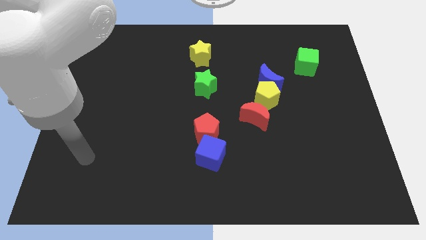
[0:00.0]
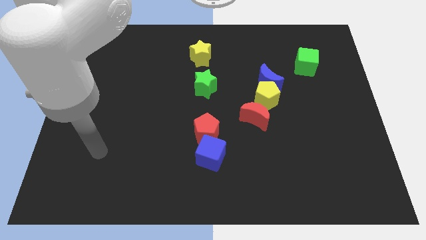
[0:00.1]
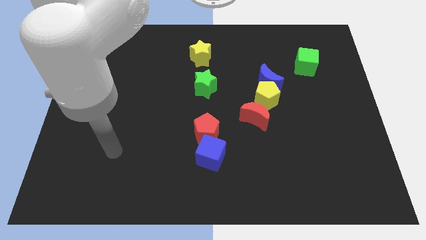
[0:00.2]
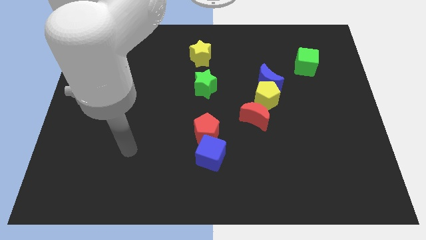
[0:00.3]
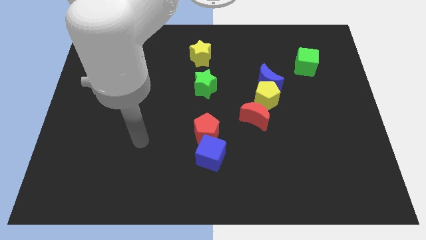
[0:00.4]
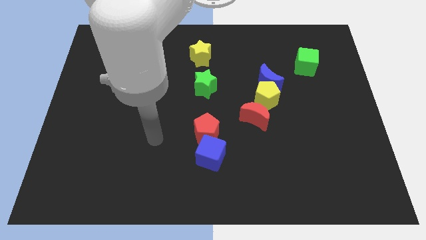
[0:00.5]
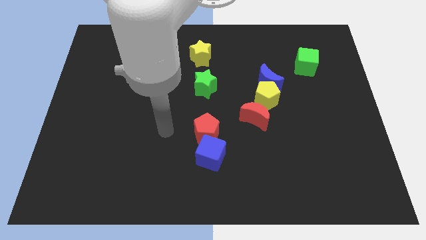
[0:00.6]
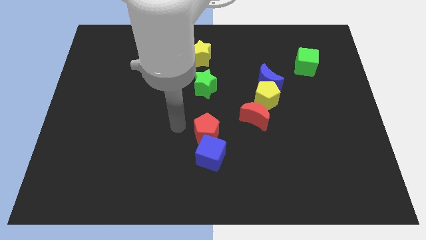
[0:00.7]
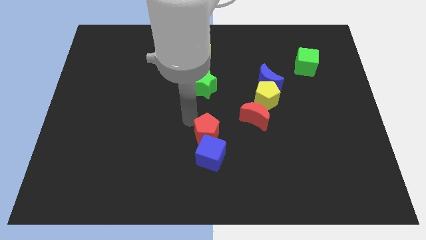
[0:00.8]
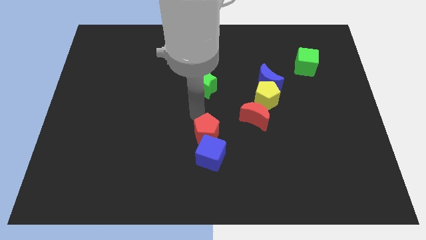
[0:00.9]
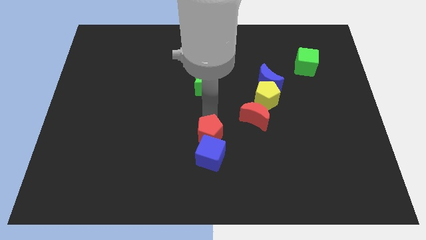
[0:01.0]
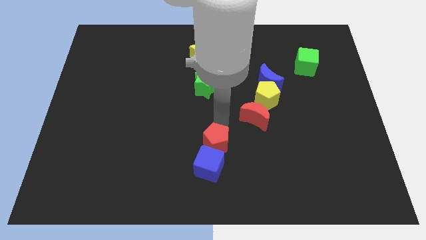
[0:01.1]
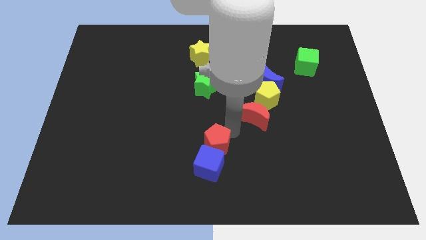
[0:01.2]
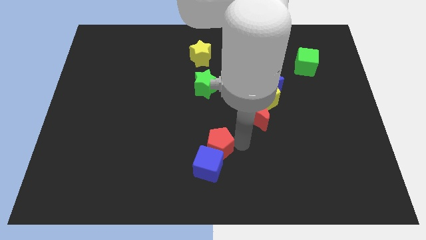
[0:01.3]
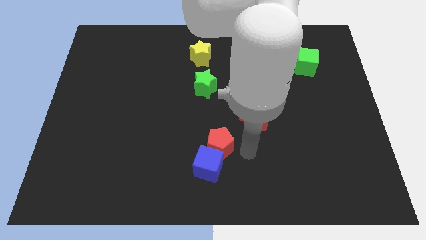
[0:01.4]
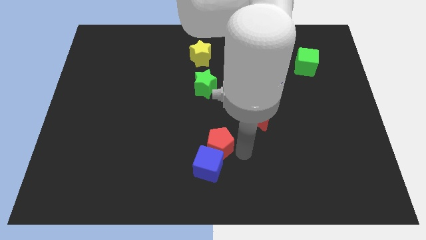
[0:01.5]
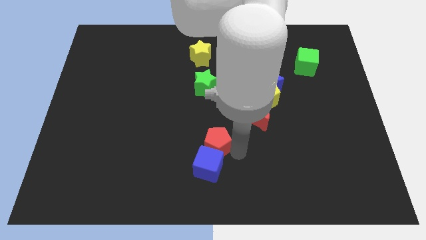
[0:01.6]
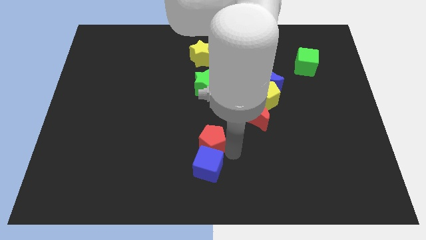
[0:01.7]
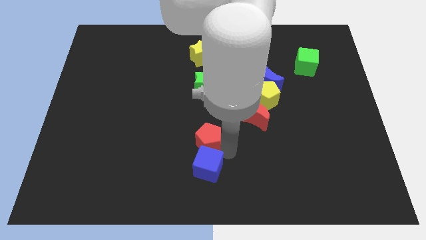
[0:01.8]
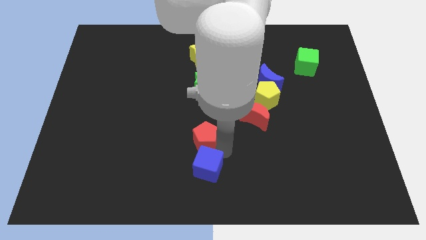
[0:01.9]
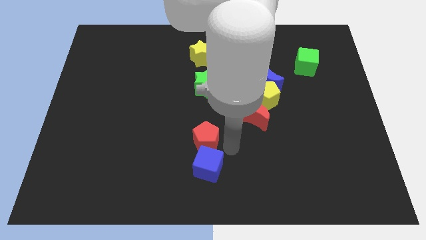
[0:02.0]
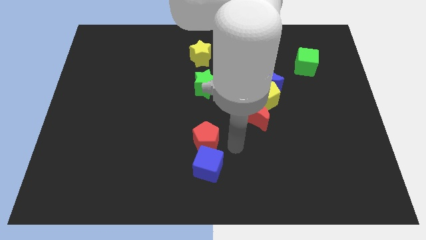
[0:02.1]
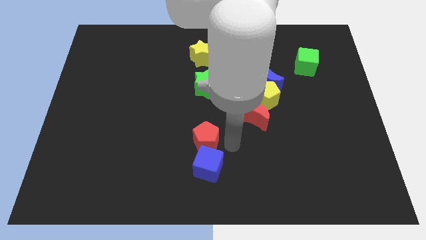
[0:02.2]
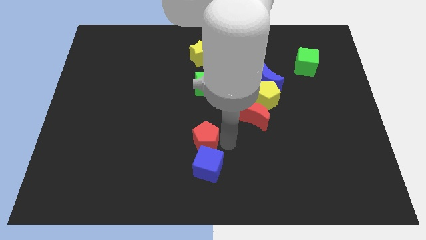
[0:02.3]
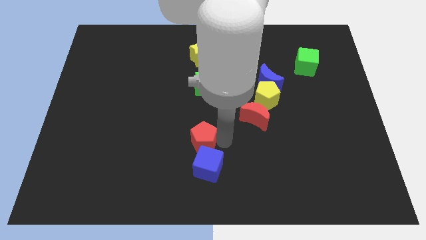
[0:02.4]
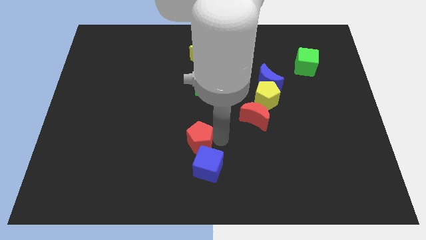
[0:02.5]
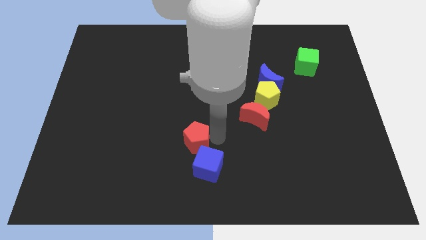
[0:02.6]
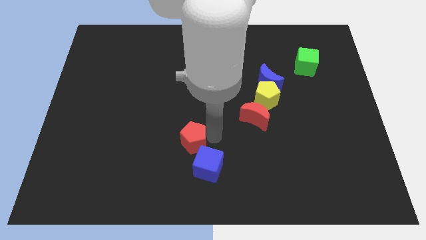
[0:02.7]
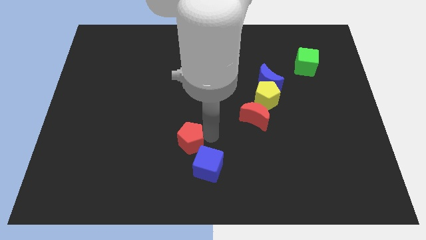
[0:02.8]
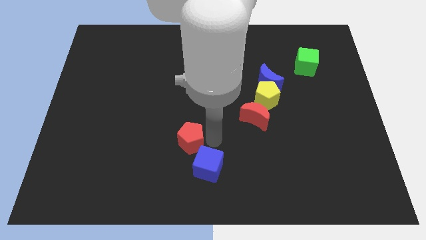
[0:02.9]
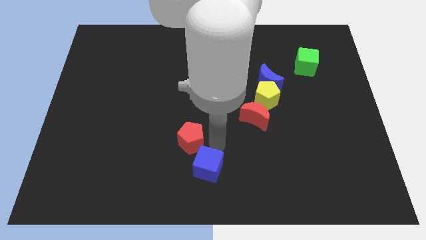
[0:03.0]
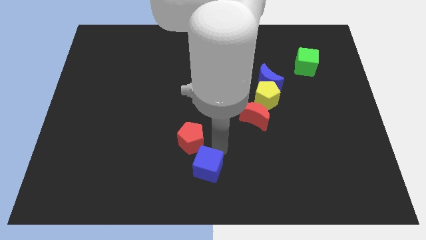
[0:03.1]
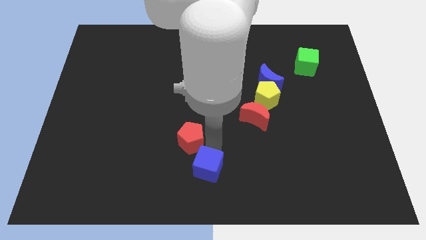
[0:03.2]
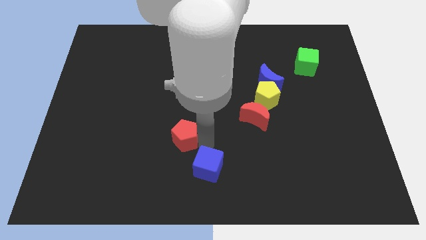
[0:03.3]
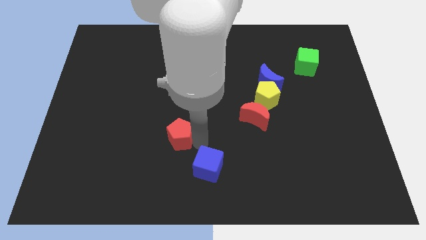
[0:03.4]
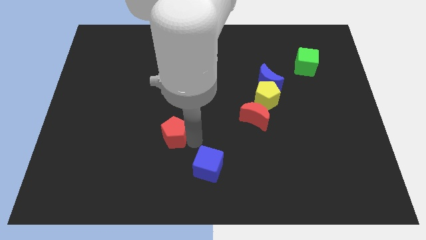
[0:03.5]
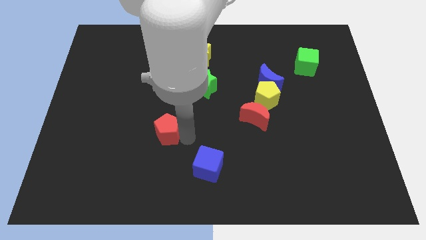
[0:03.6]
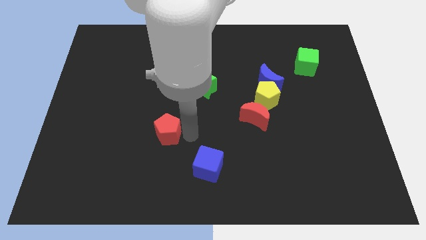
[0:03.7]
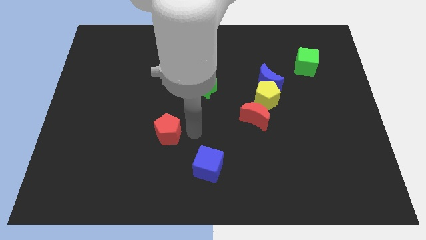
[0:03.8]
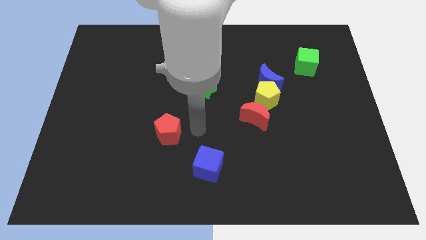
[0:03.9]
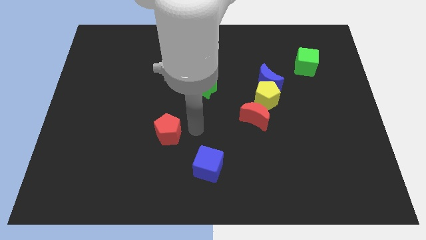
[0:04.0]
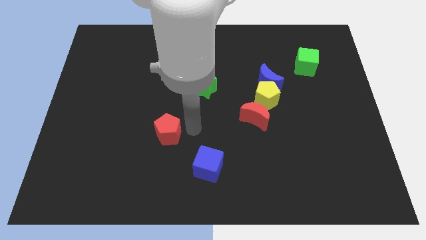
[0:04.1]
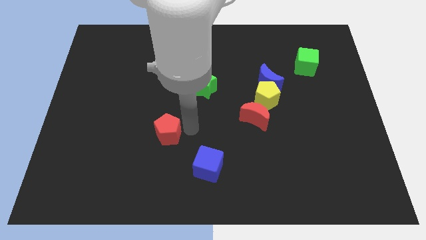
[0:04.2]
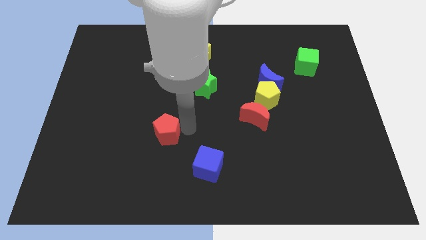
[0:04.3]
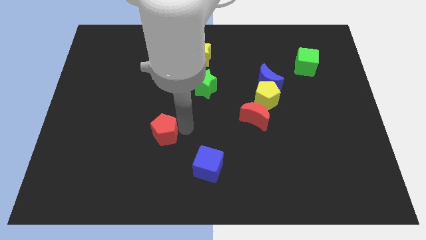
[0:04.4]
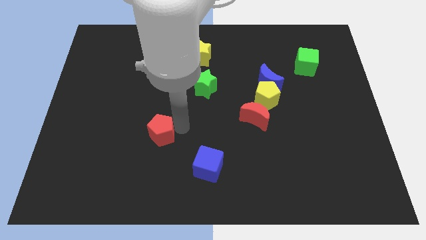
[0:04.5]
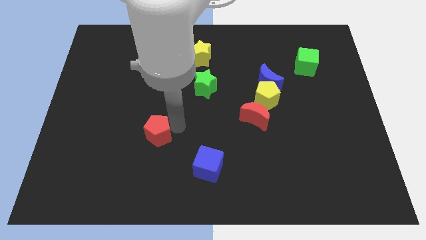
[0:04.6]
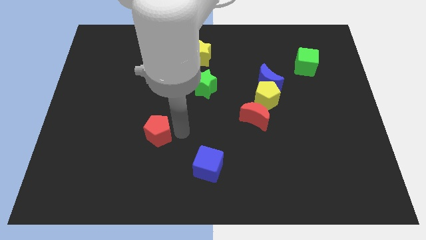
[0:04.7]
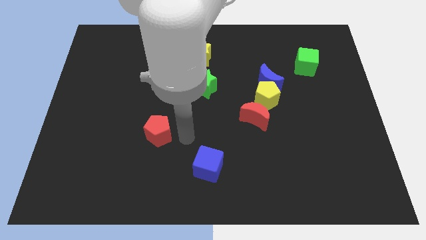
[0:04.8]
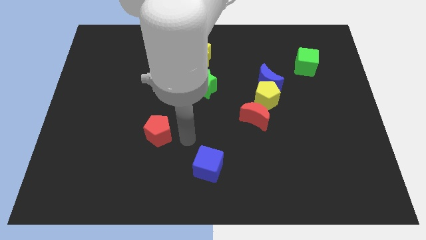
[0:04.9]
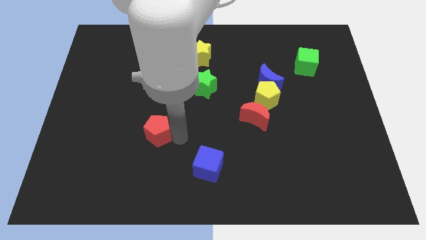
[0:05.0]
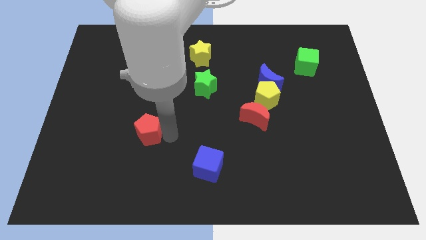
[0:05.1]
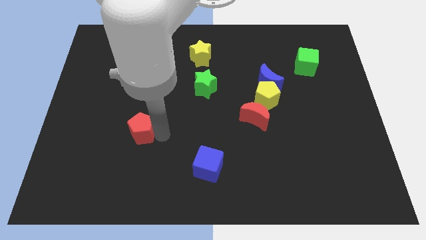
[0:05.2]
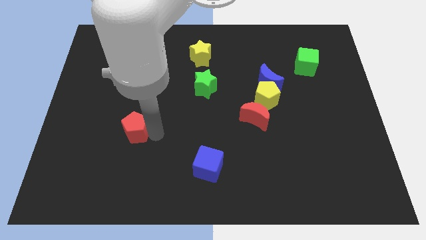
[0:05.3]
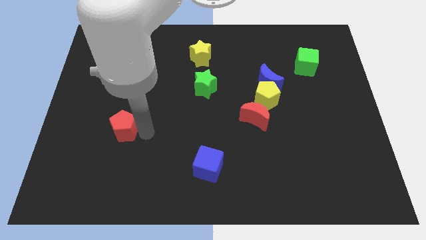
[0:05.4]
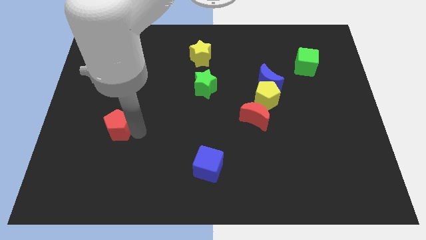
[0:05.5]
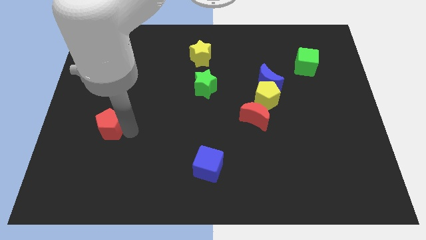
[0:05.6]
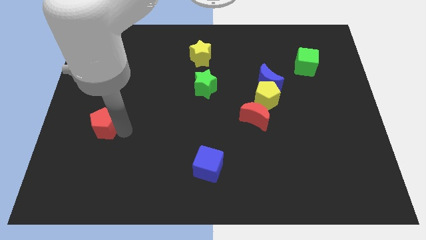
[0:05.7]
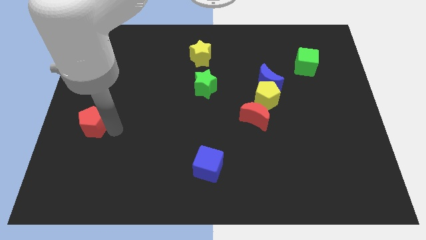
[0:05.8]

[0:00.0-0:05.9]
slide the red pentagon to the center left

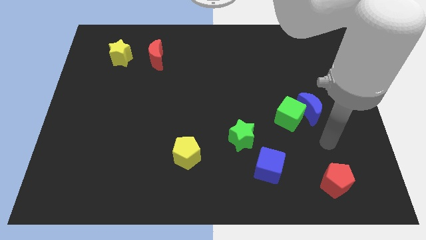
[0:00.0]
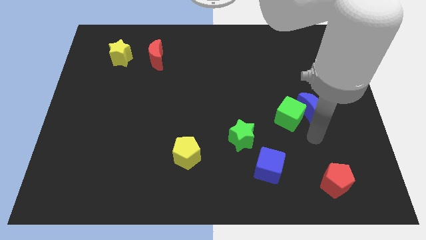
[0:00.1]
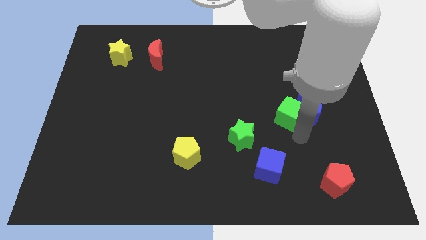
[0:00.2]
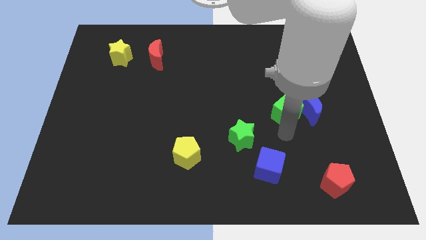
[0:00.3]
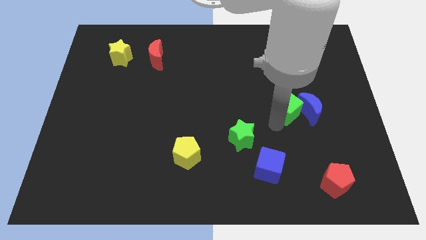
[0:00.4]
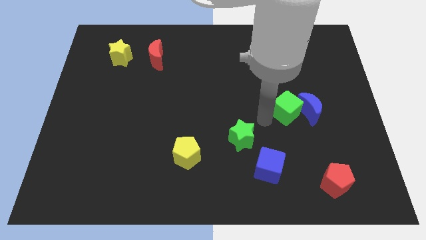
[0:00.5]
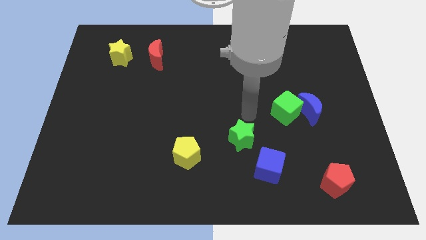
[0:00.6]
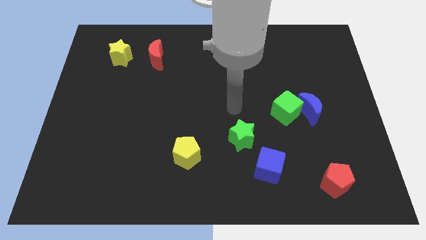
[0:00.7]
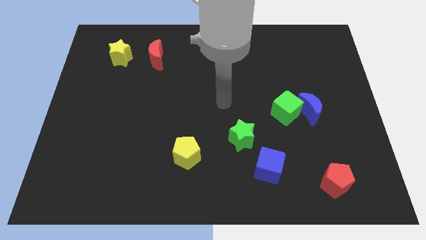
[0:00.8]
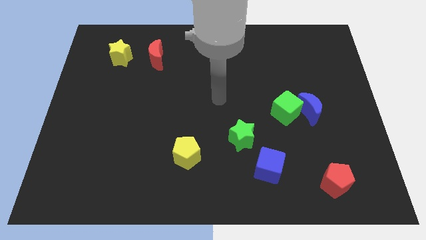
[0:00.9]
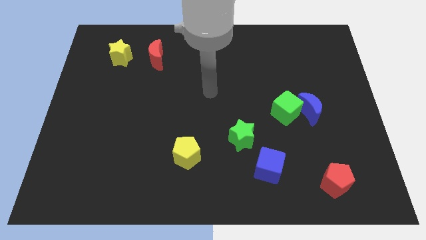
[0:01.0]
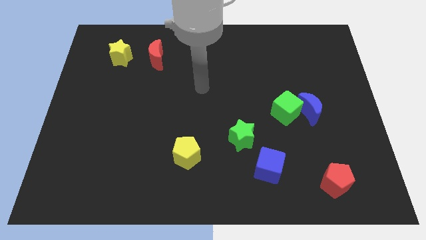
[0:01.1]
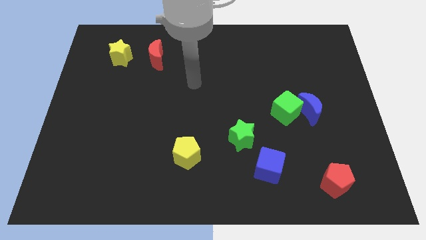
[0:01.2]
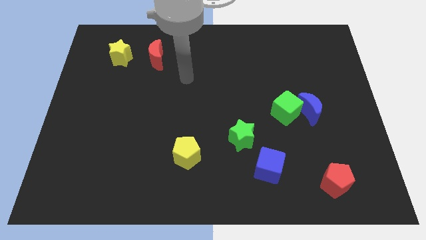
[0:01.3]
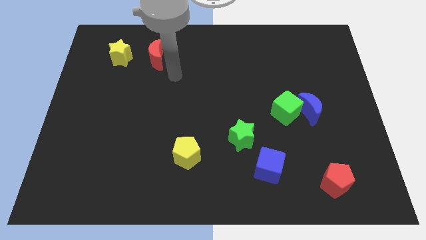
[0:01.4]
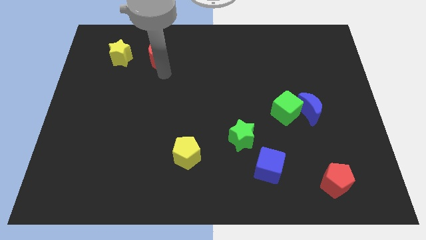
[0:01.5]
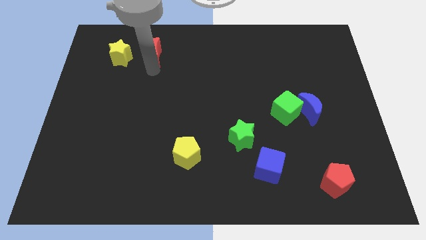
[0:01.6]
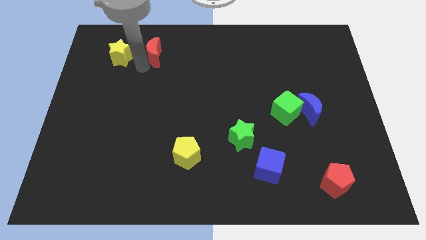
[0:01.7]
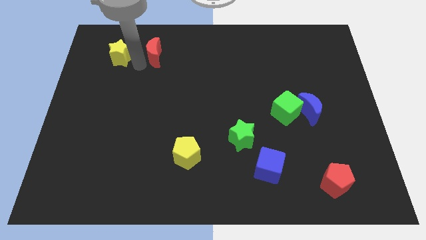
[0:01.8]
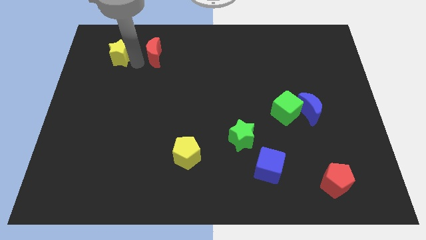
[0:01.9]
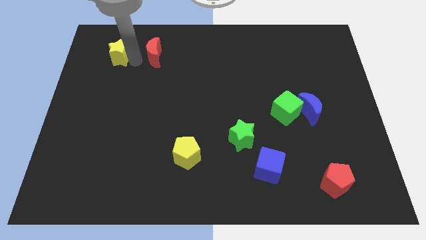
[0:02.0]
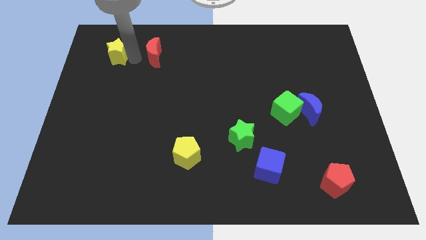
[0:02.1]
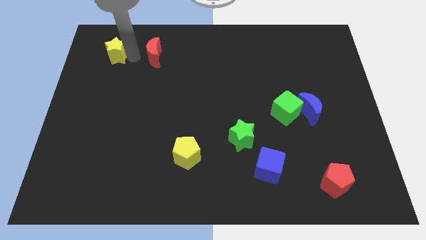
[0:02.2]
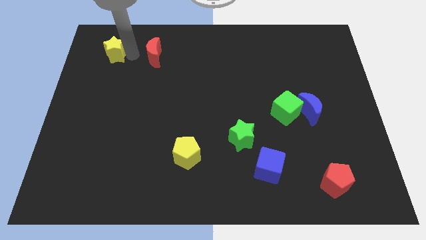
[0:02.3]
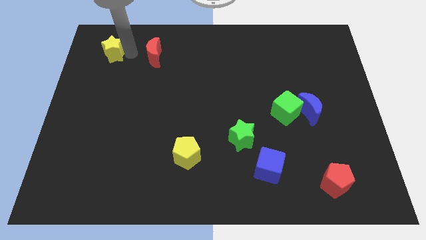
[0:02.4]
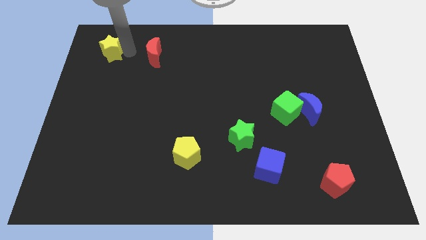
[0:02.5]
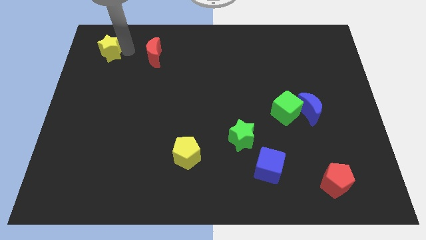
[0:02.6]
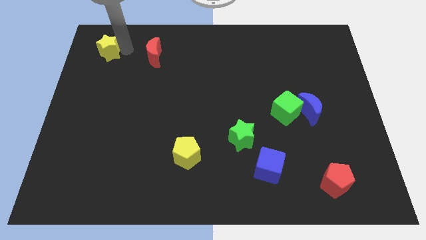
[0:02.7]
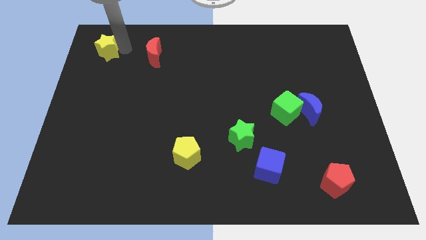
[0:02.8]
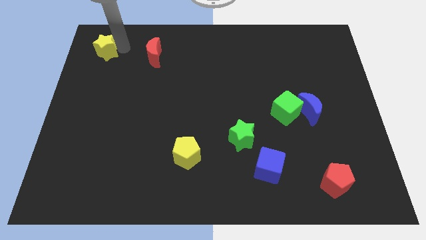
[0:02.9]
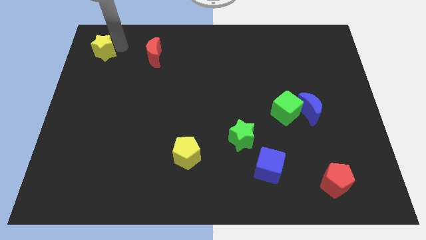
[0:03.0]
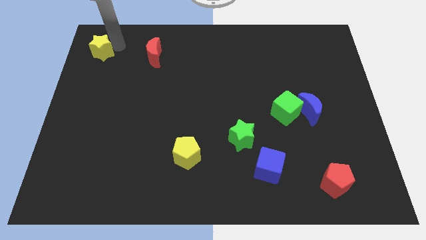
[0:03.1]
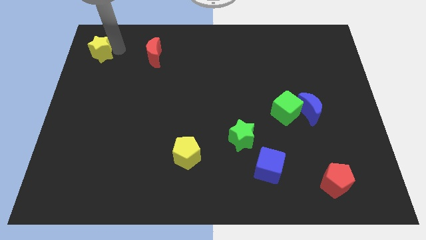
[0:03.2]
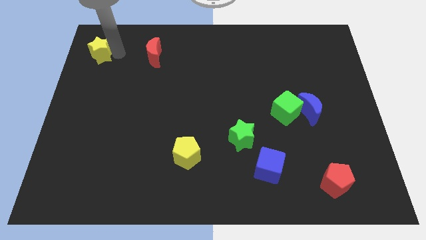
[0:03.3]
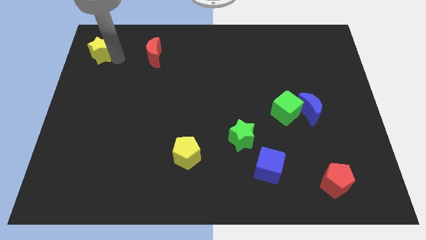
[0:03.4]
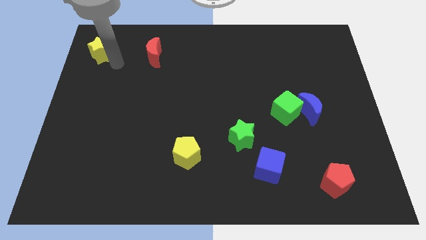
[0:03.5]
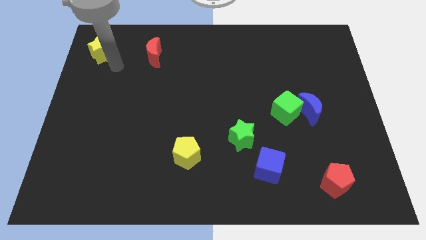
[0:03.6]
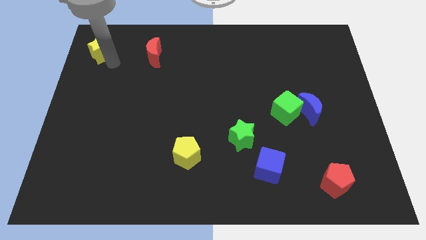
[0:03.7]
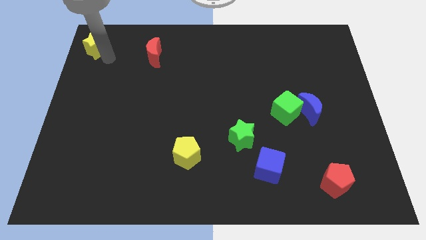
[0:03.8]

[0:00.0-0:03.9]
push the yellow star to the top left corner
